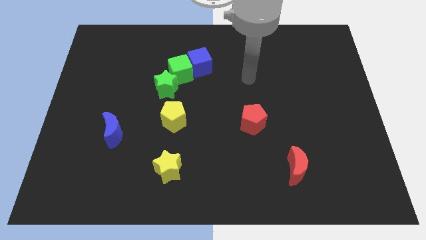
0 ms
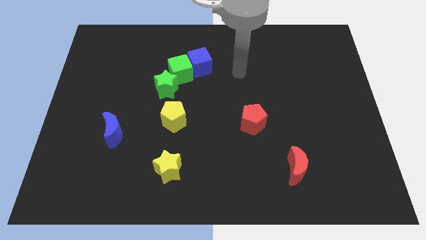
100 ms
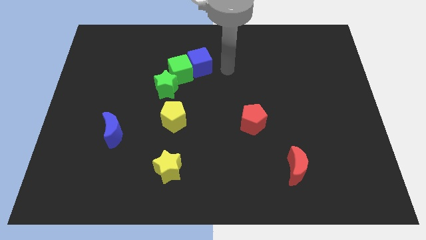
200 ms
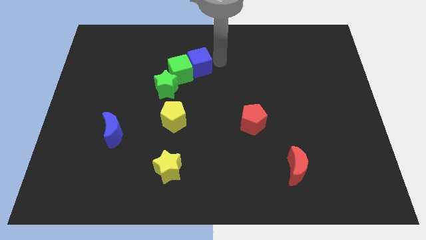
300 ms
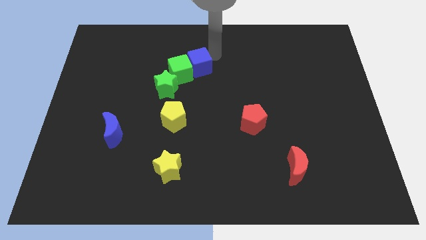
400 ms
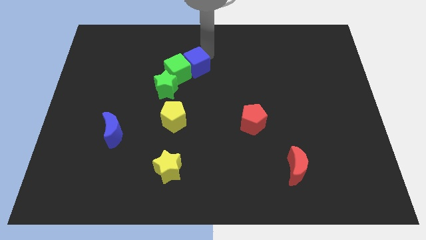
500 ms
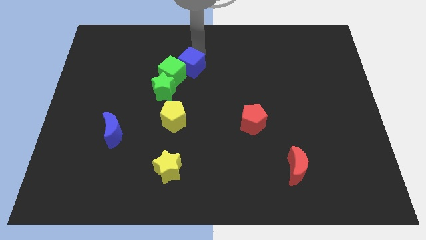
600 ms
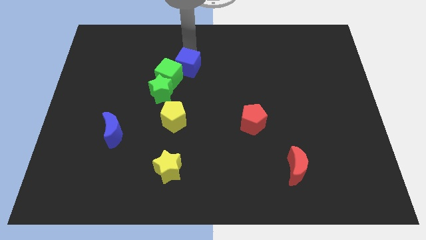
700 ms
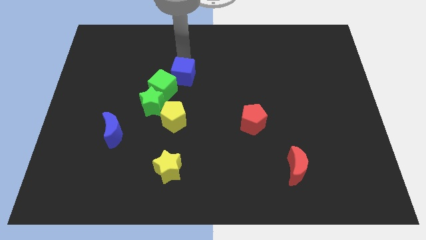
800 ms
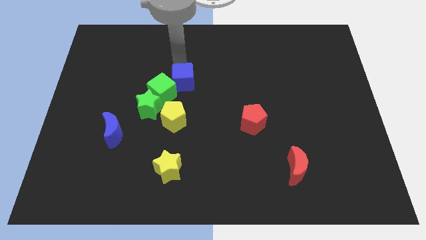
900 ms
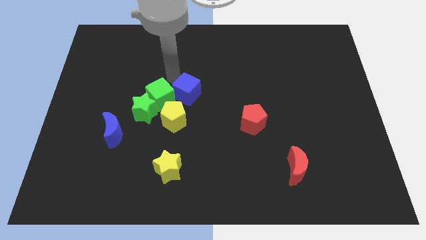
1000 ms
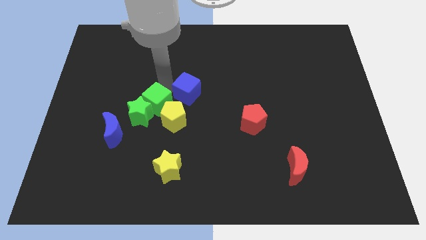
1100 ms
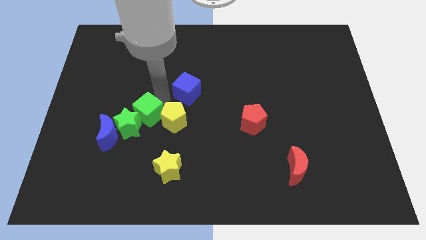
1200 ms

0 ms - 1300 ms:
separate the blue cube from the green cube

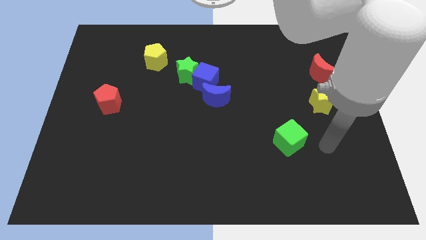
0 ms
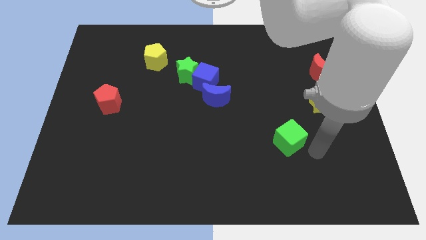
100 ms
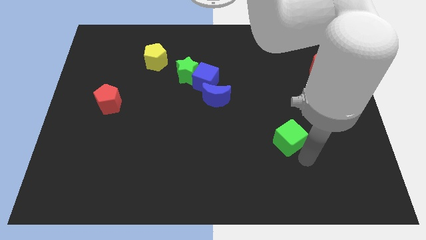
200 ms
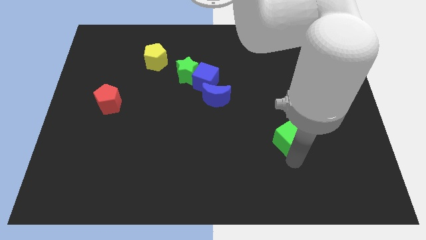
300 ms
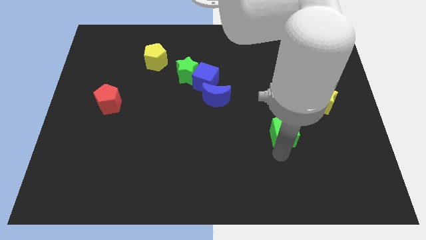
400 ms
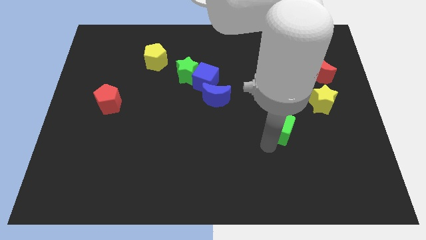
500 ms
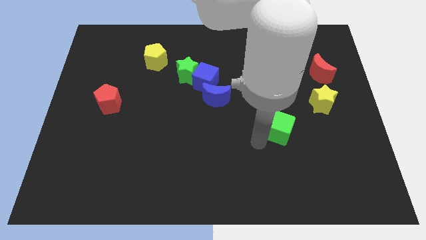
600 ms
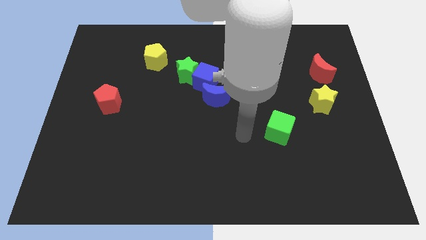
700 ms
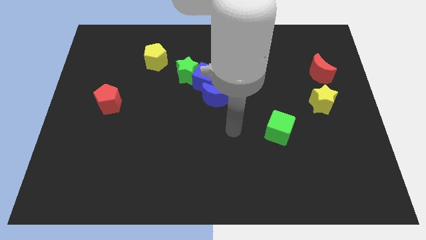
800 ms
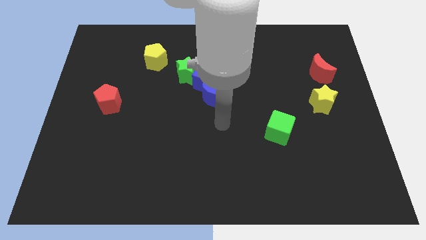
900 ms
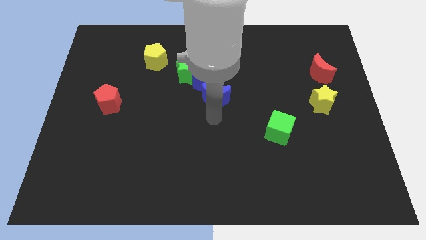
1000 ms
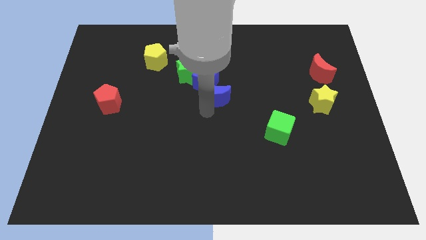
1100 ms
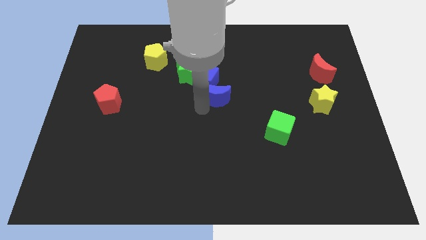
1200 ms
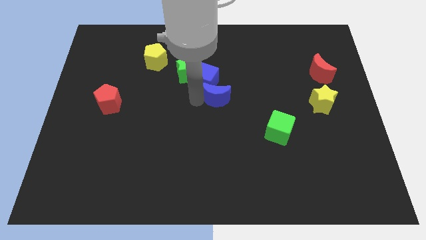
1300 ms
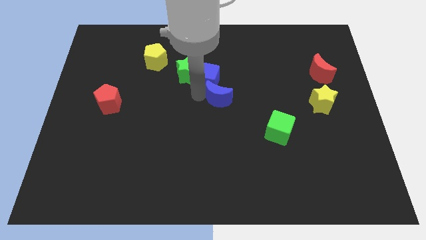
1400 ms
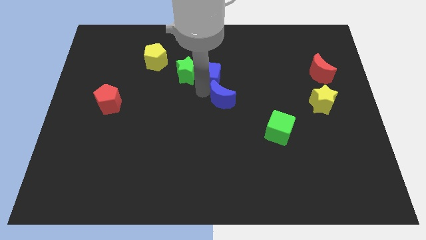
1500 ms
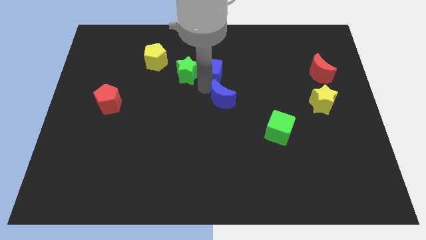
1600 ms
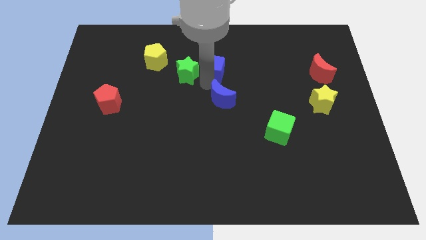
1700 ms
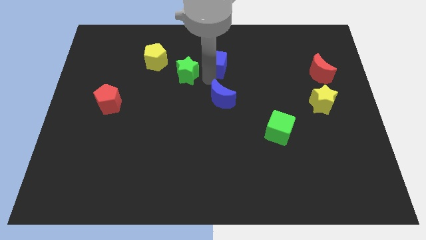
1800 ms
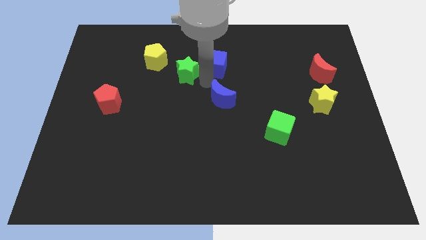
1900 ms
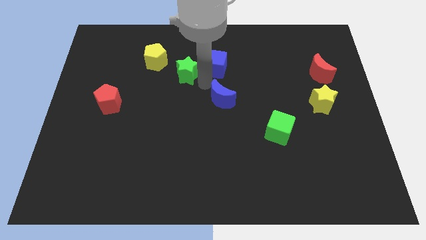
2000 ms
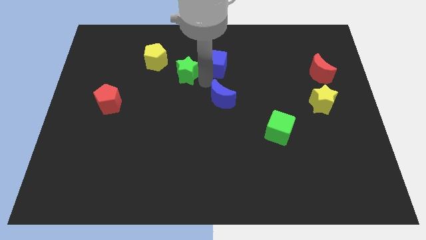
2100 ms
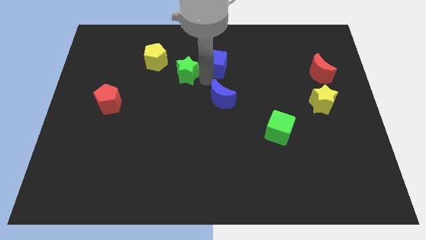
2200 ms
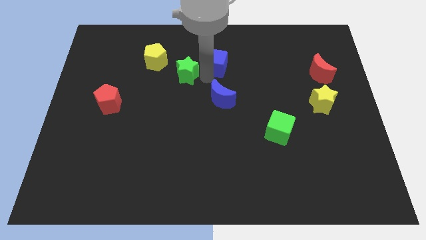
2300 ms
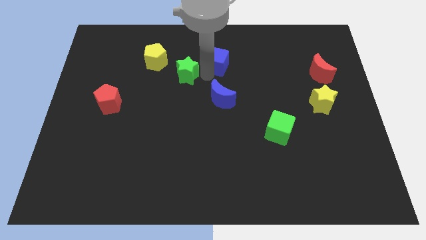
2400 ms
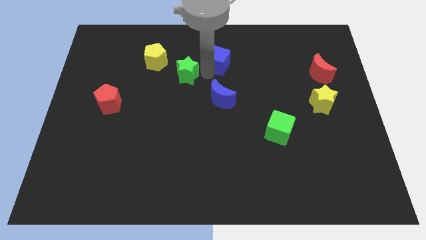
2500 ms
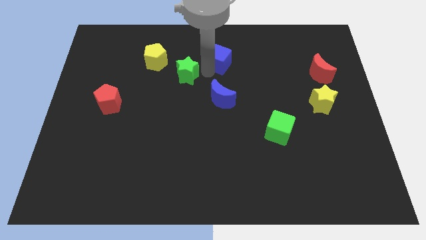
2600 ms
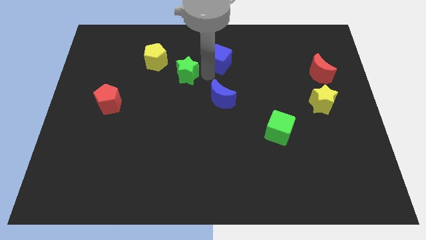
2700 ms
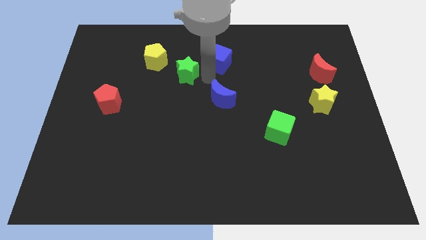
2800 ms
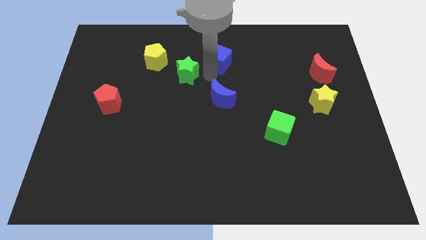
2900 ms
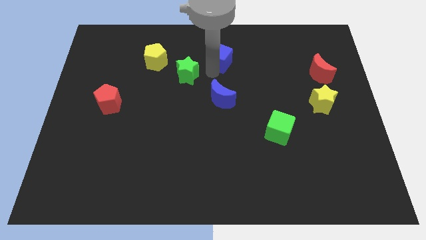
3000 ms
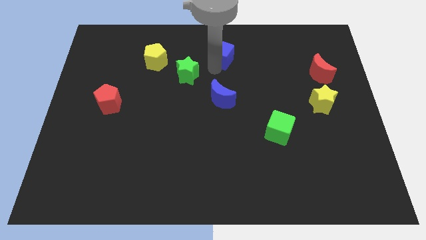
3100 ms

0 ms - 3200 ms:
pull the blue cube apart from the green star and blue moon

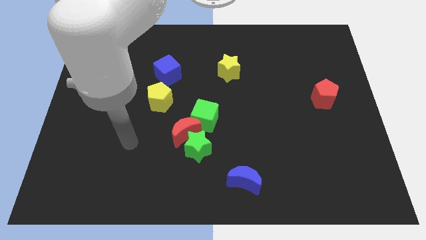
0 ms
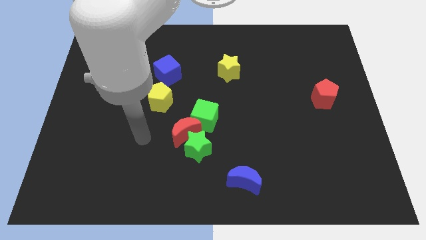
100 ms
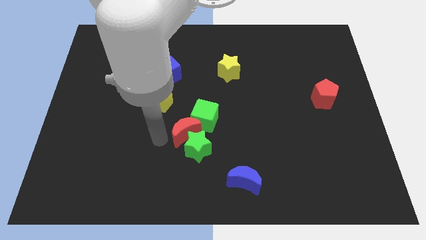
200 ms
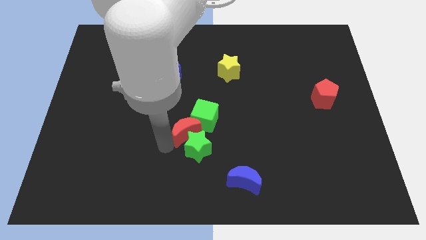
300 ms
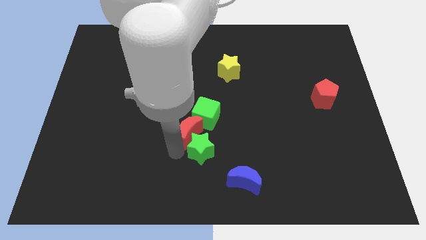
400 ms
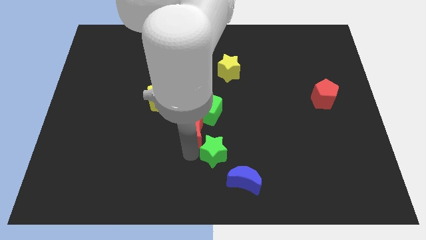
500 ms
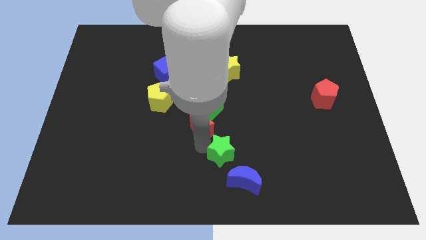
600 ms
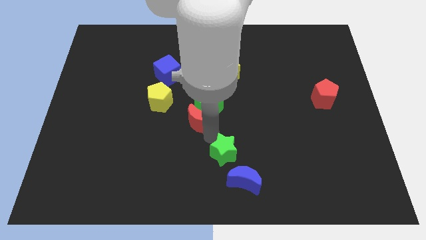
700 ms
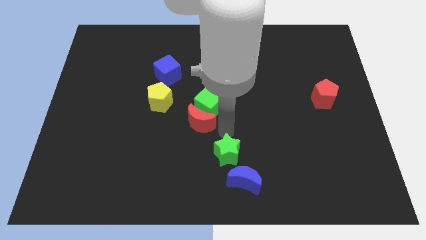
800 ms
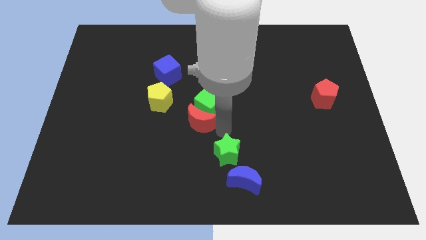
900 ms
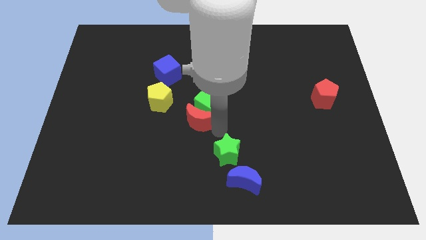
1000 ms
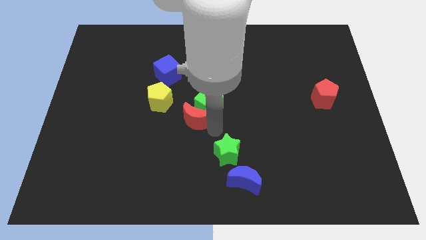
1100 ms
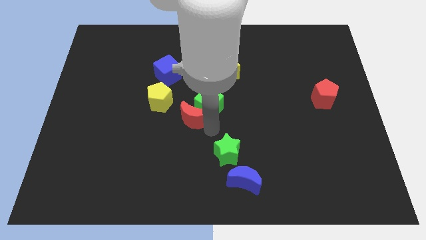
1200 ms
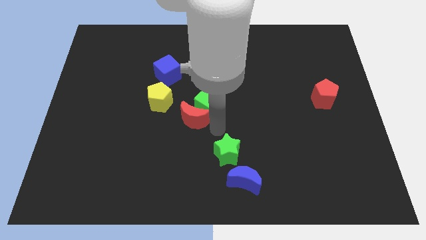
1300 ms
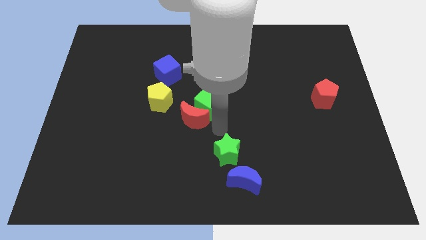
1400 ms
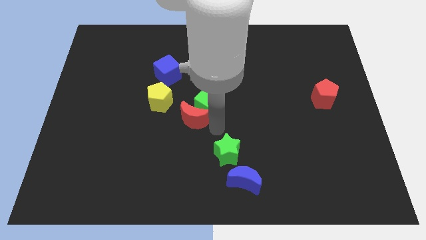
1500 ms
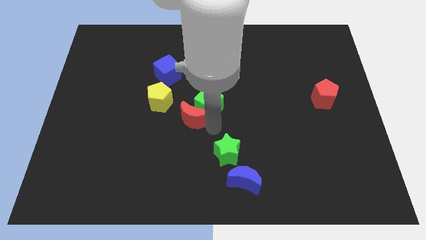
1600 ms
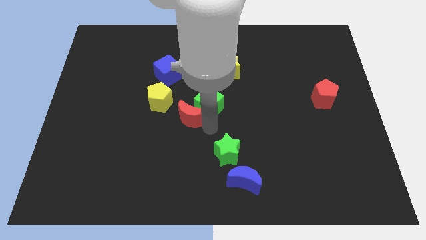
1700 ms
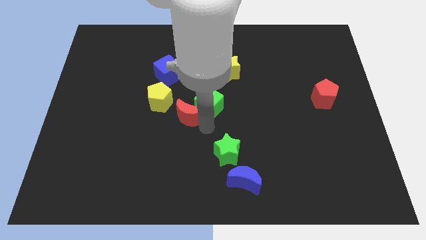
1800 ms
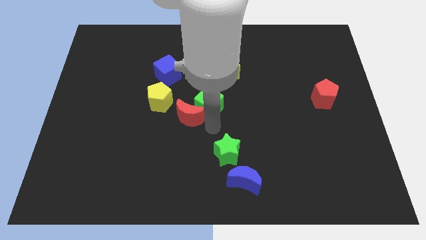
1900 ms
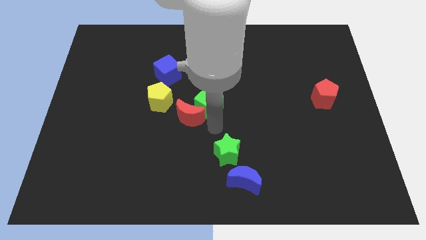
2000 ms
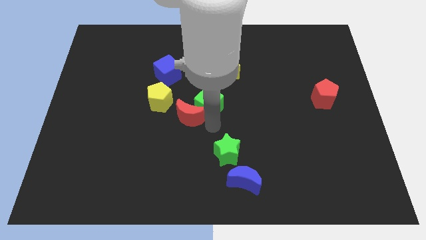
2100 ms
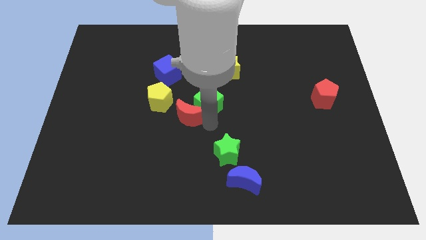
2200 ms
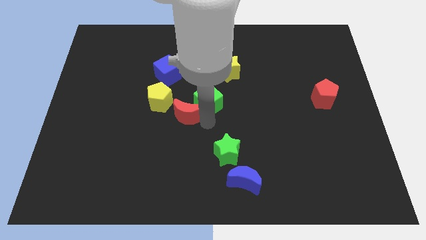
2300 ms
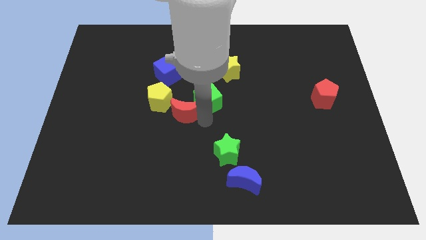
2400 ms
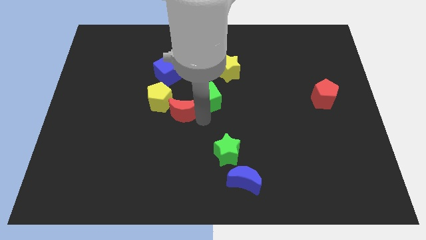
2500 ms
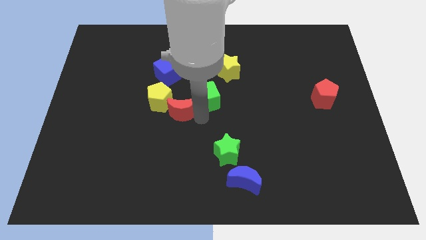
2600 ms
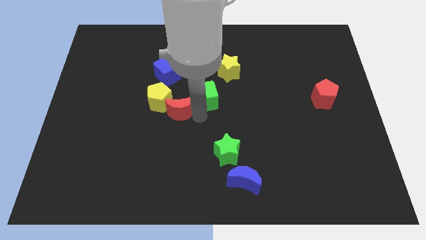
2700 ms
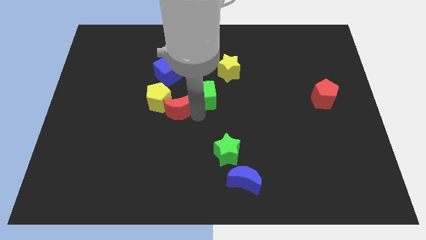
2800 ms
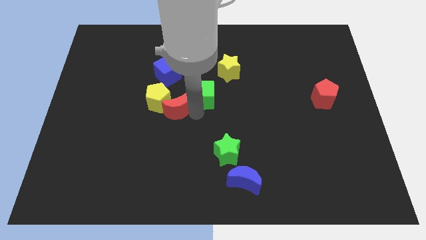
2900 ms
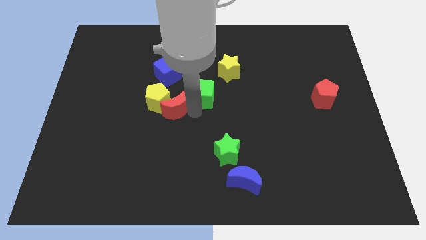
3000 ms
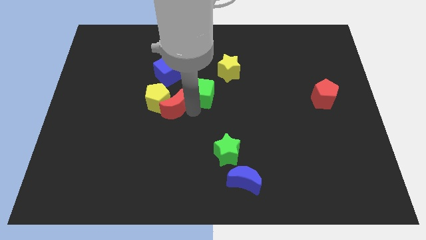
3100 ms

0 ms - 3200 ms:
separate the red moon from the green star and green cube

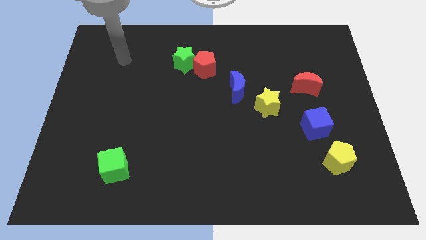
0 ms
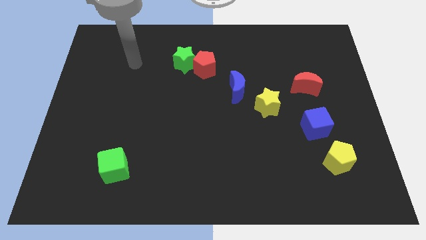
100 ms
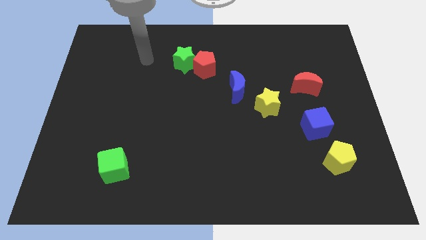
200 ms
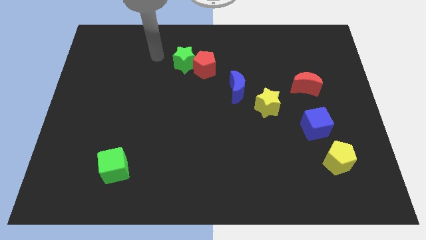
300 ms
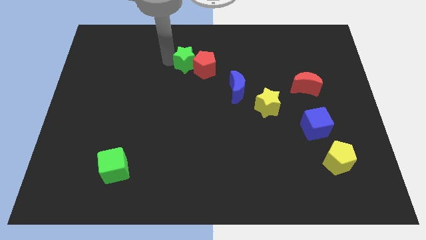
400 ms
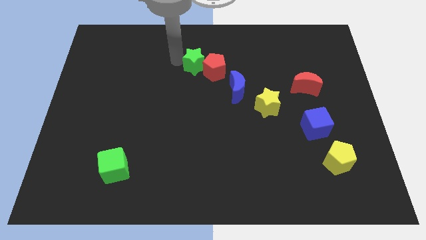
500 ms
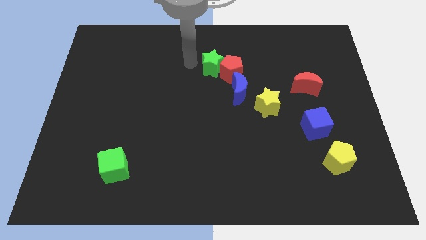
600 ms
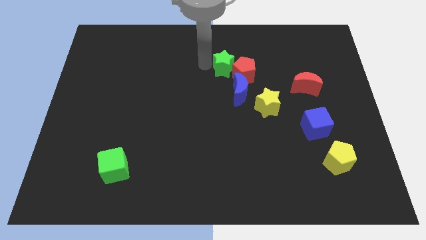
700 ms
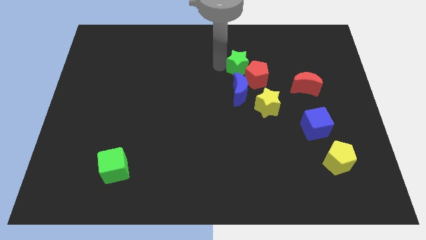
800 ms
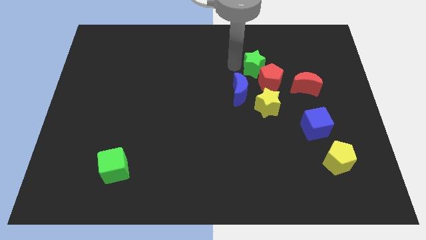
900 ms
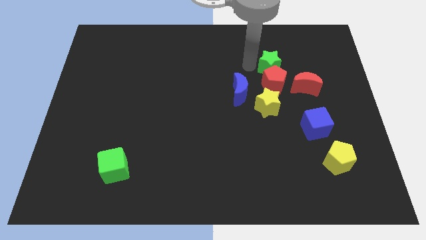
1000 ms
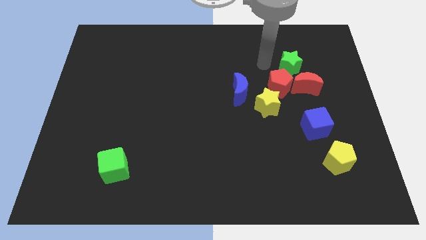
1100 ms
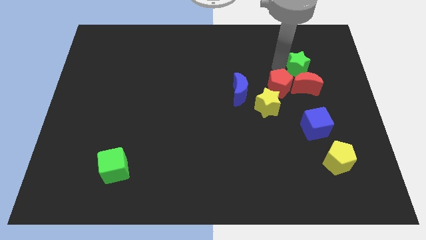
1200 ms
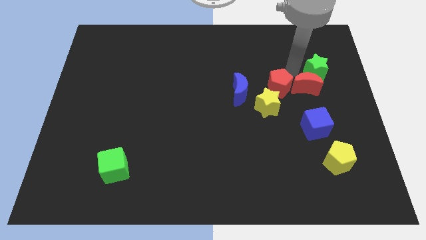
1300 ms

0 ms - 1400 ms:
pull the red pentagon apart from the green star

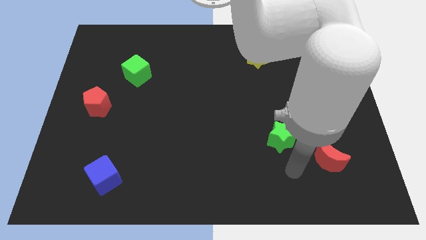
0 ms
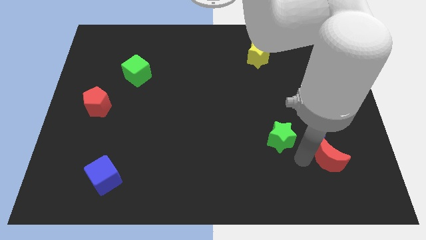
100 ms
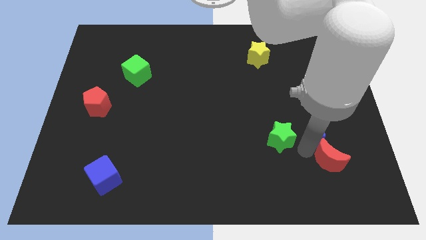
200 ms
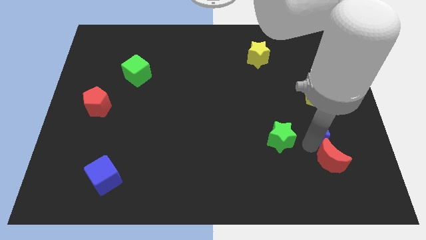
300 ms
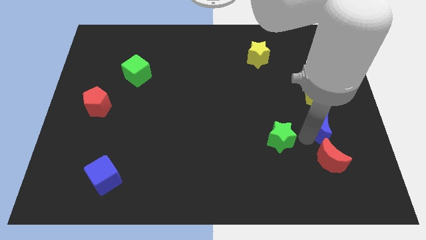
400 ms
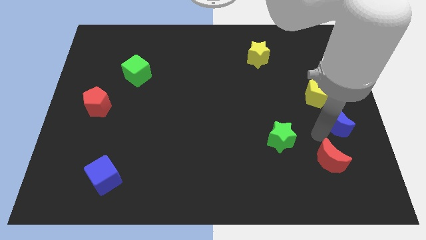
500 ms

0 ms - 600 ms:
move the red moon away from the blue moon
